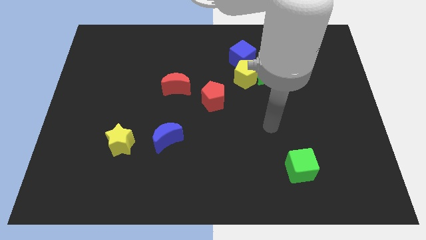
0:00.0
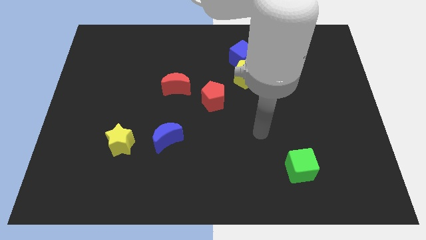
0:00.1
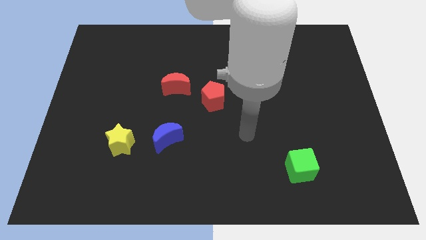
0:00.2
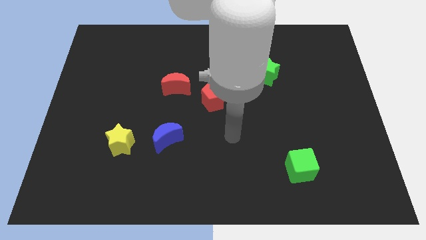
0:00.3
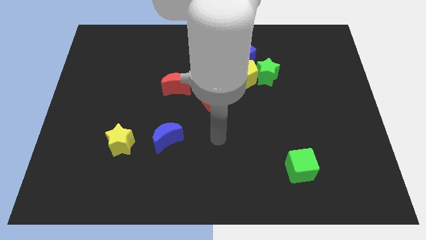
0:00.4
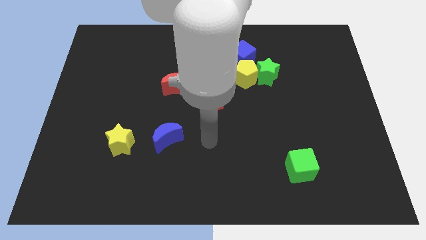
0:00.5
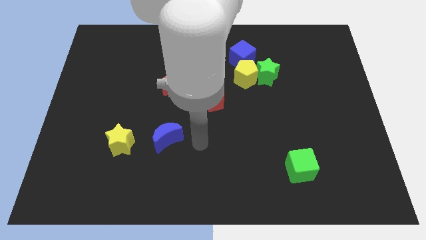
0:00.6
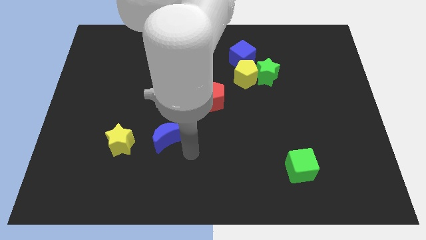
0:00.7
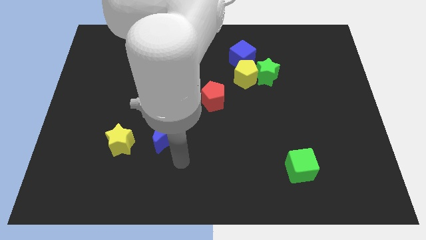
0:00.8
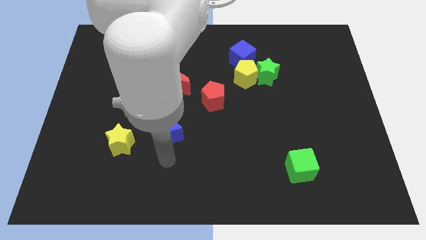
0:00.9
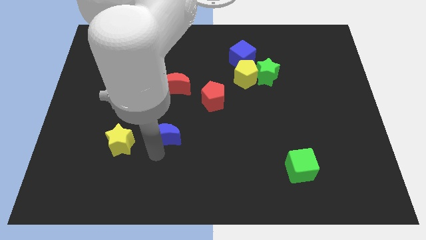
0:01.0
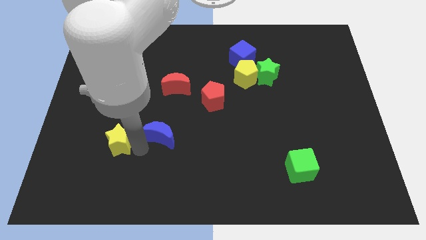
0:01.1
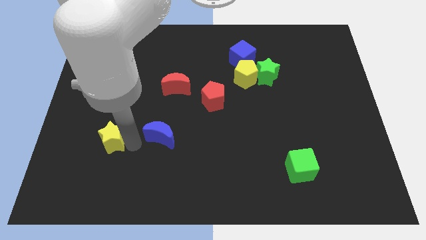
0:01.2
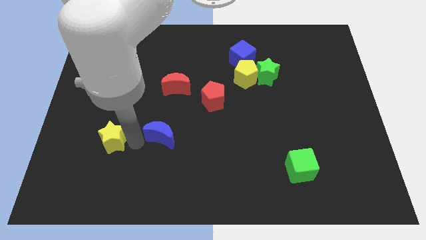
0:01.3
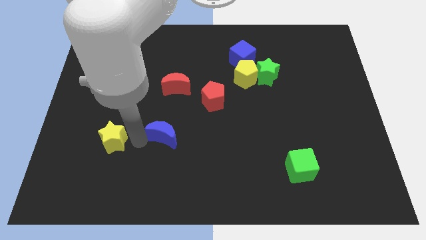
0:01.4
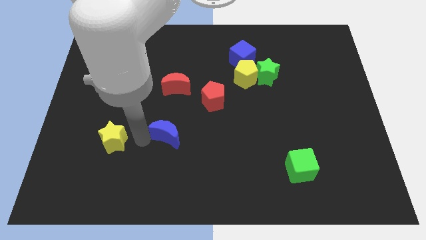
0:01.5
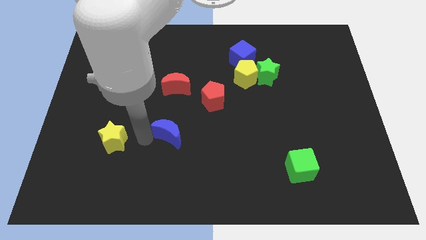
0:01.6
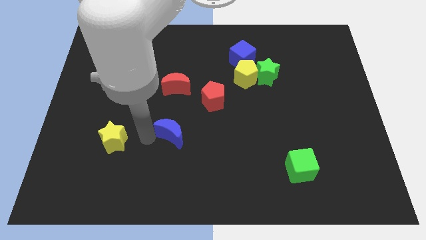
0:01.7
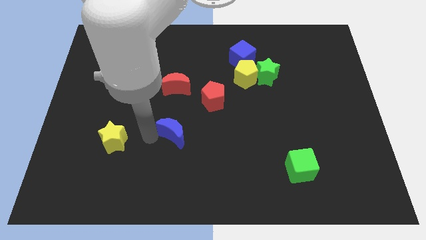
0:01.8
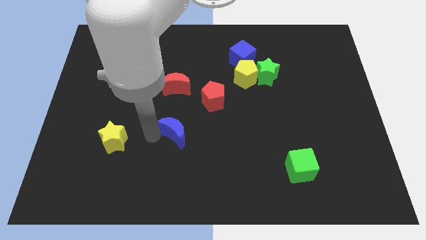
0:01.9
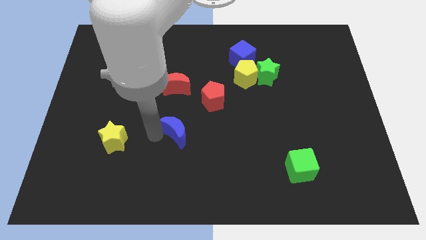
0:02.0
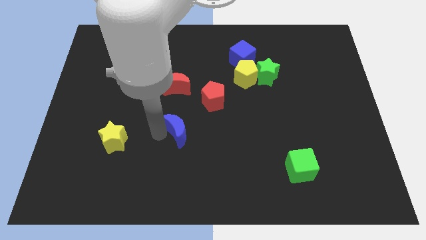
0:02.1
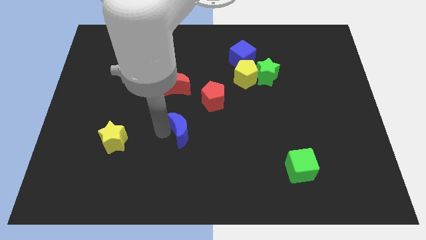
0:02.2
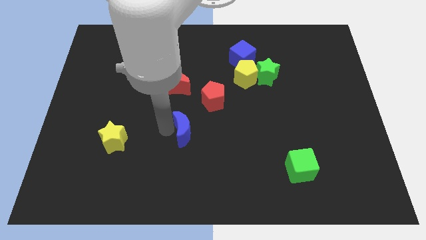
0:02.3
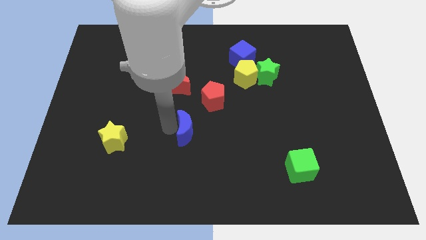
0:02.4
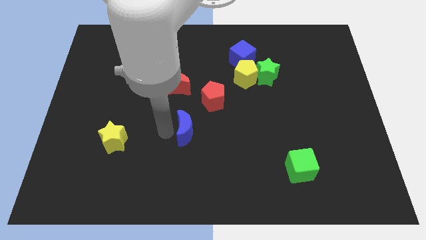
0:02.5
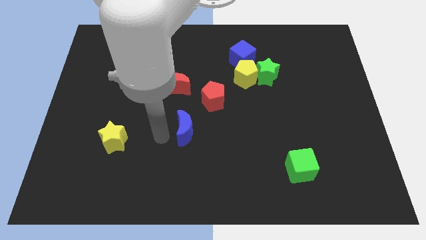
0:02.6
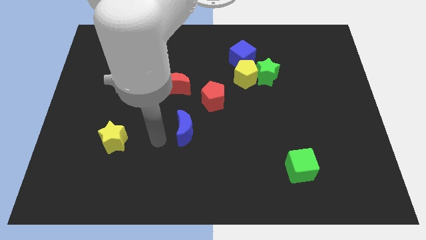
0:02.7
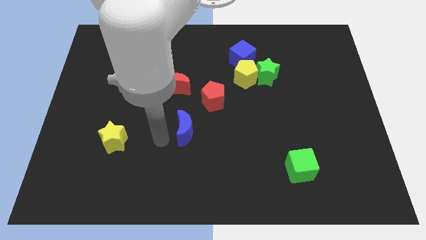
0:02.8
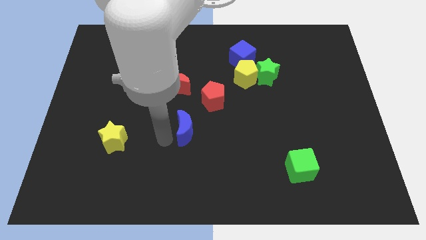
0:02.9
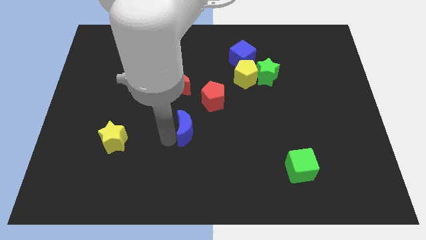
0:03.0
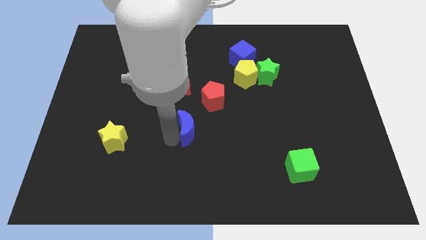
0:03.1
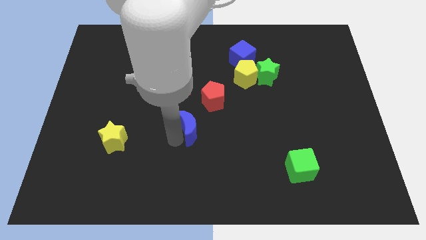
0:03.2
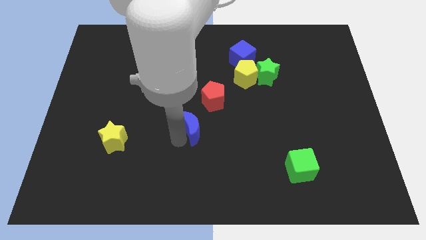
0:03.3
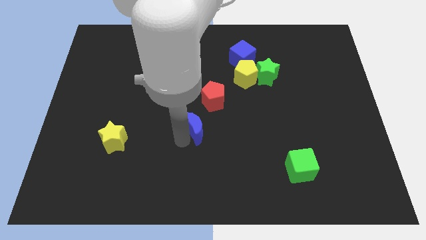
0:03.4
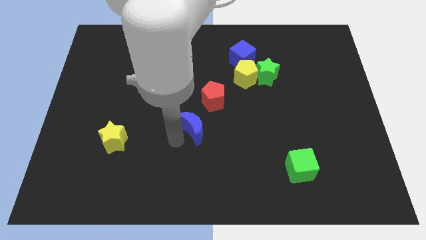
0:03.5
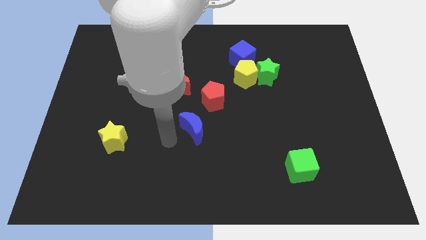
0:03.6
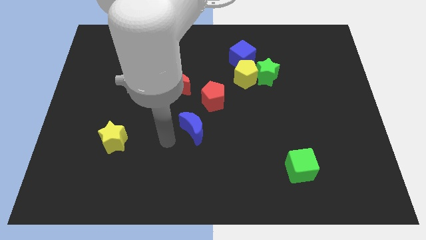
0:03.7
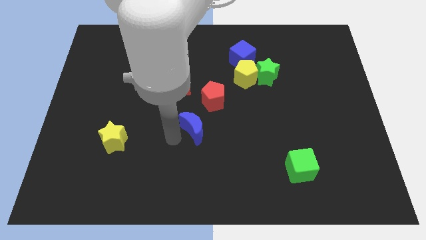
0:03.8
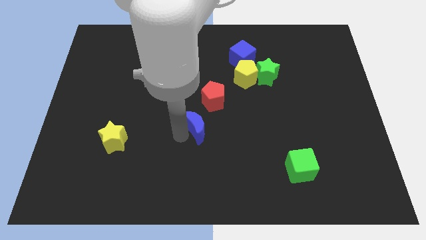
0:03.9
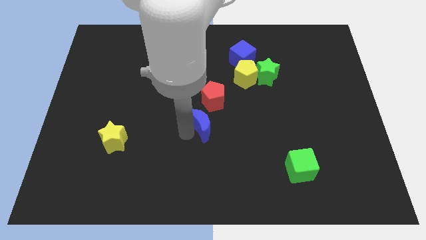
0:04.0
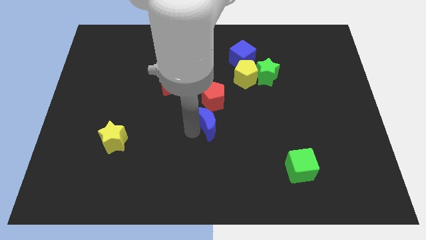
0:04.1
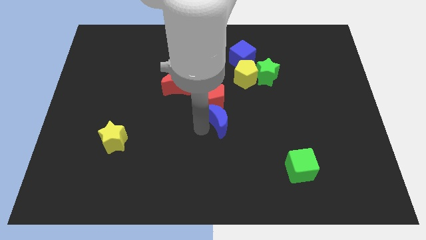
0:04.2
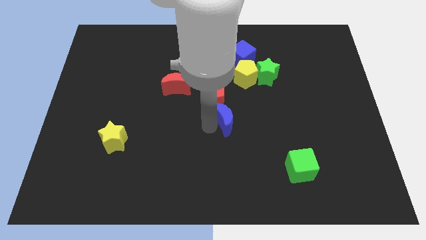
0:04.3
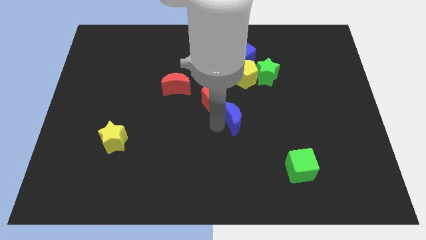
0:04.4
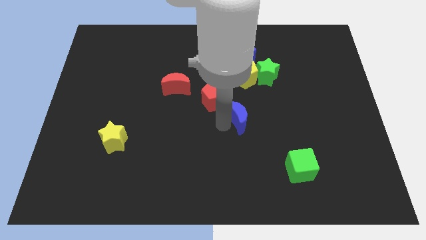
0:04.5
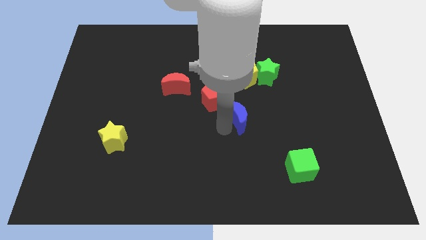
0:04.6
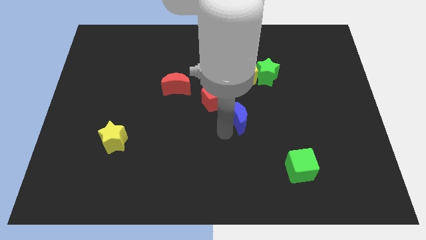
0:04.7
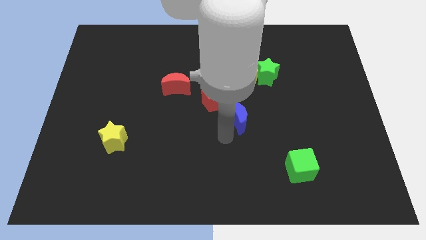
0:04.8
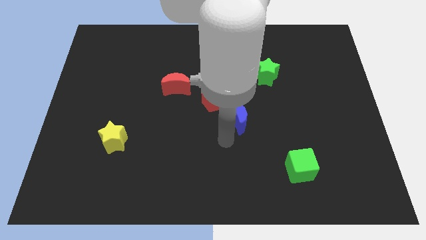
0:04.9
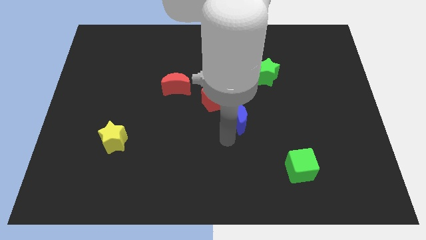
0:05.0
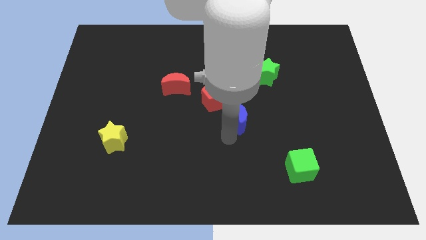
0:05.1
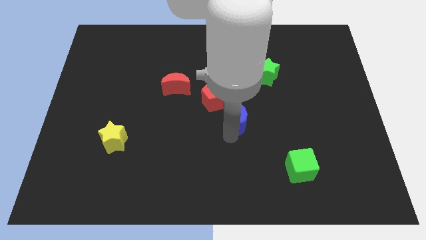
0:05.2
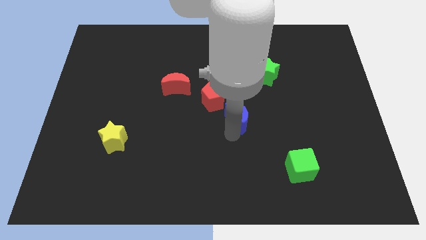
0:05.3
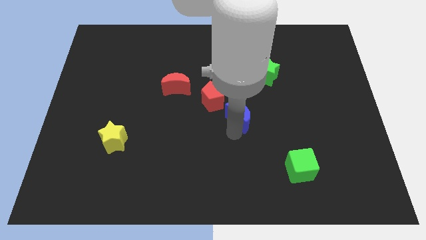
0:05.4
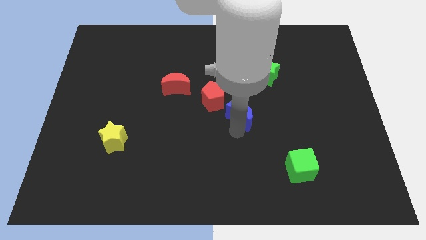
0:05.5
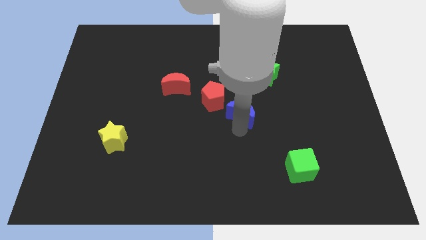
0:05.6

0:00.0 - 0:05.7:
push the blue moon to the right of the red pentagon

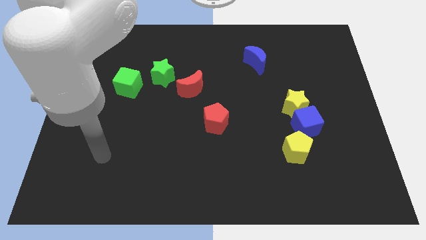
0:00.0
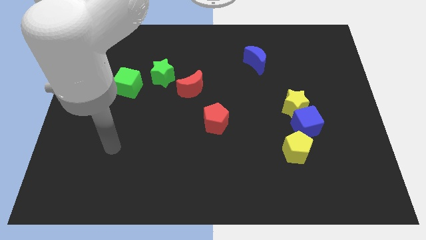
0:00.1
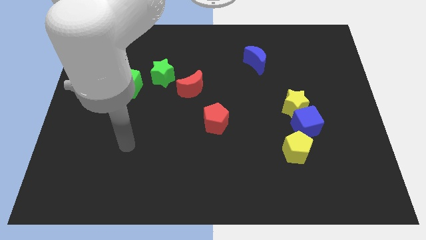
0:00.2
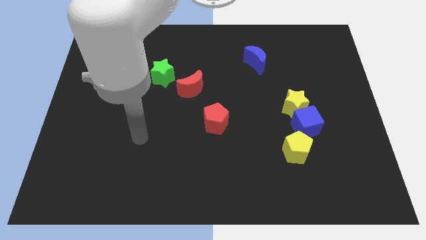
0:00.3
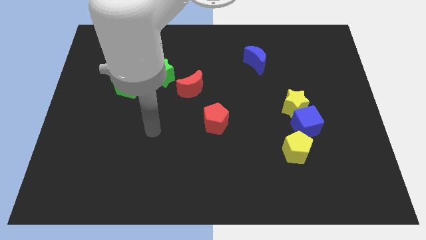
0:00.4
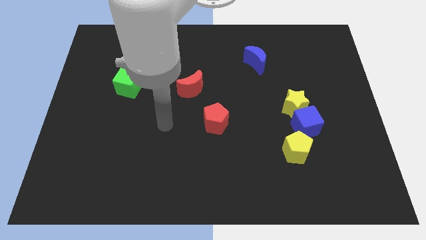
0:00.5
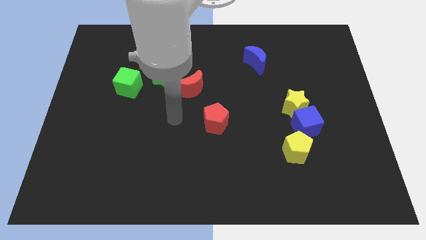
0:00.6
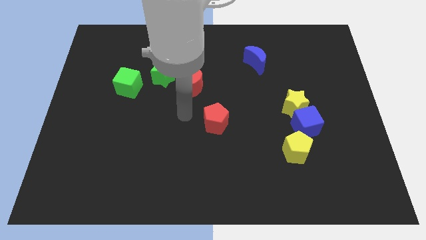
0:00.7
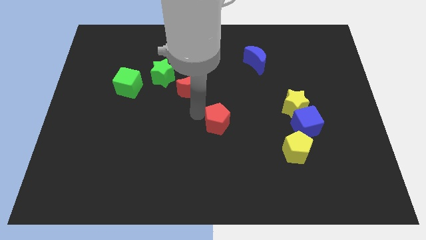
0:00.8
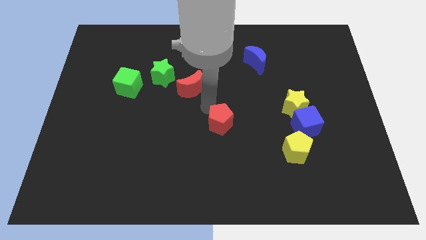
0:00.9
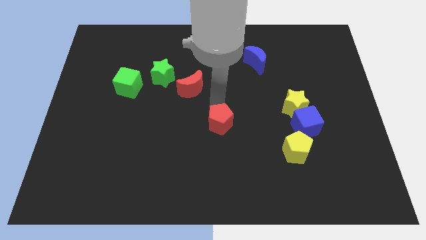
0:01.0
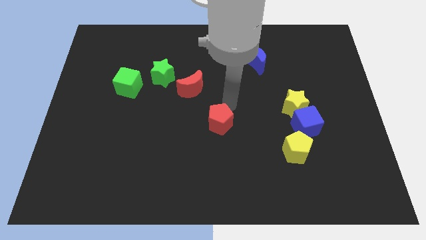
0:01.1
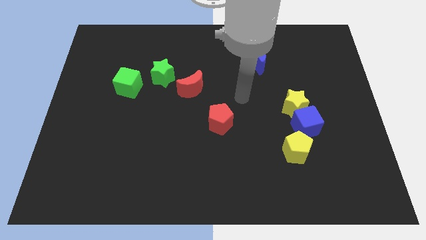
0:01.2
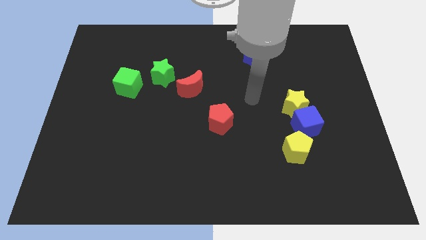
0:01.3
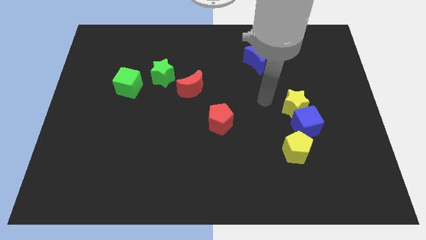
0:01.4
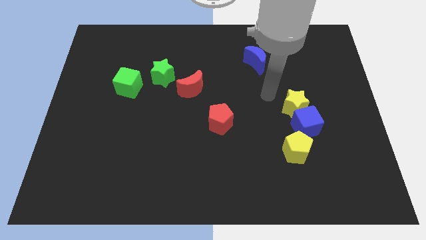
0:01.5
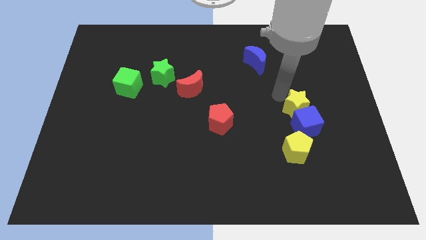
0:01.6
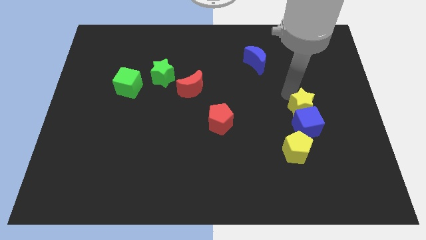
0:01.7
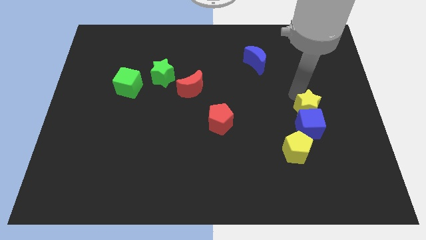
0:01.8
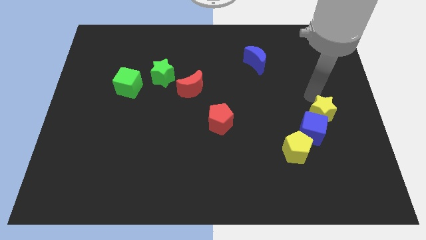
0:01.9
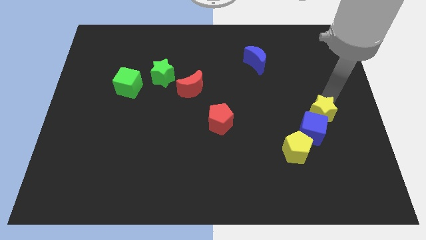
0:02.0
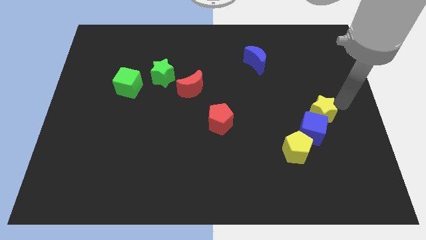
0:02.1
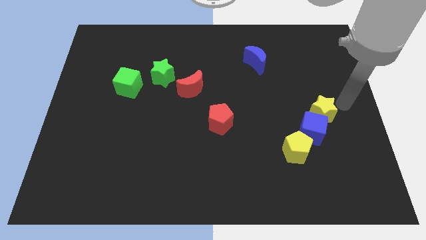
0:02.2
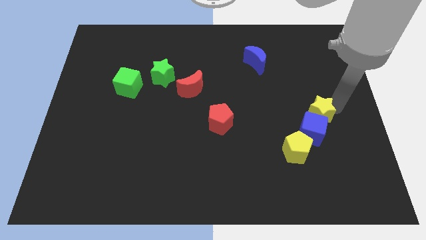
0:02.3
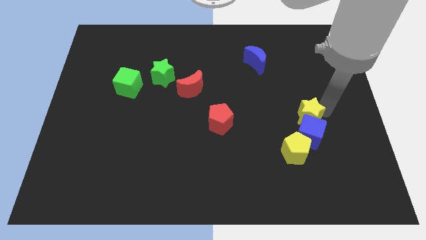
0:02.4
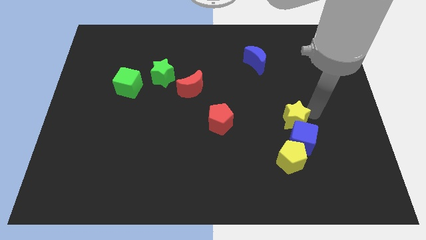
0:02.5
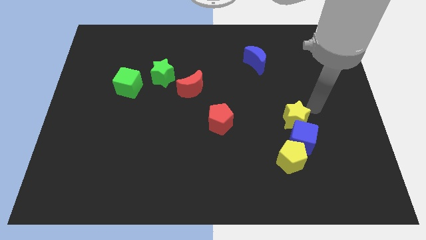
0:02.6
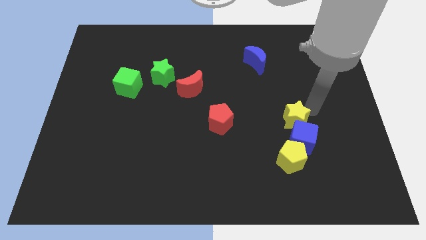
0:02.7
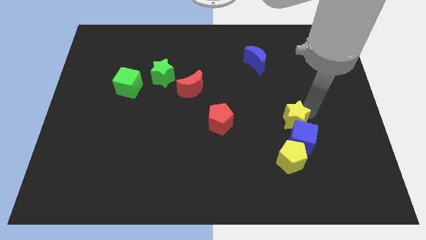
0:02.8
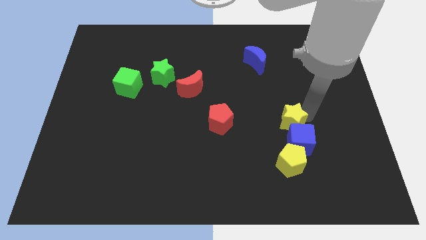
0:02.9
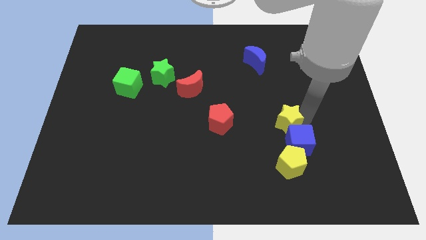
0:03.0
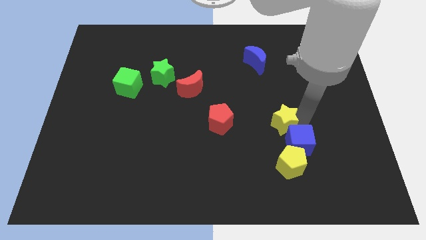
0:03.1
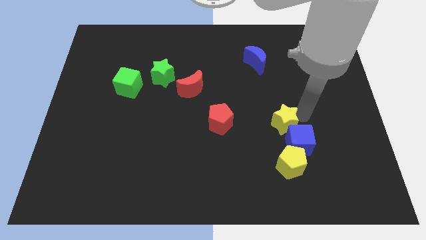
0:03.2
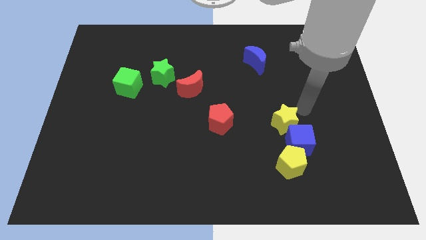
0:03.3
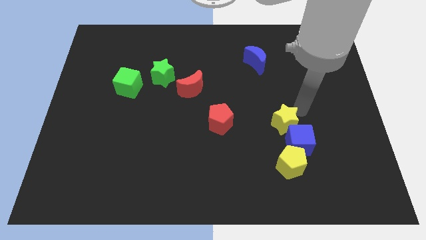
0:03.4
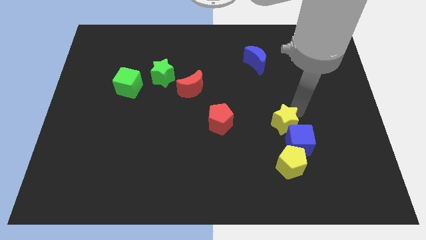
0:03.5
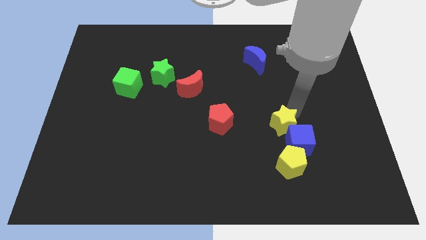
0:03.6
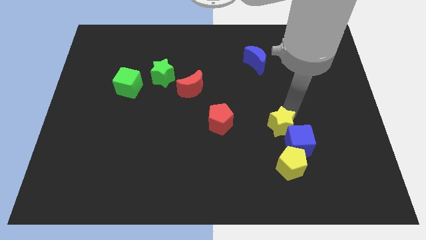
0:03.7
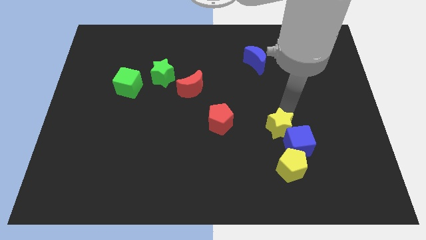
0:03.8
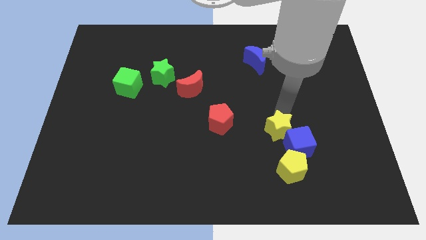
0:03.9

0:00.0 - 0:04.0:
move the yellow star left of the blue cube
